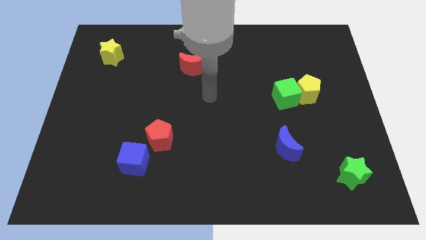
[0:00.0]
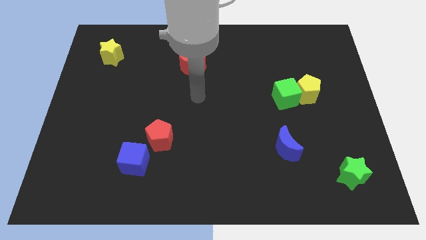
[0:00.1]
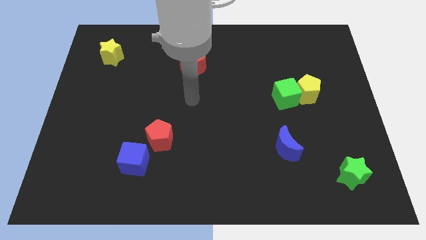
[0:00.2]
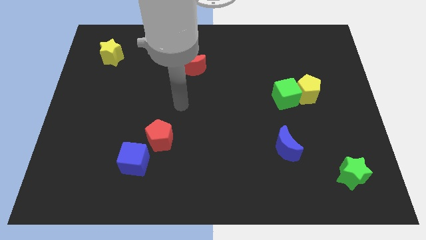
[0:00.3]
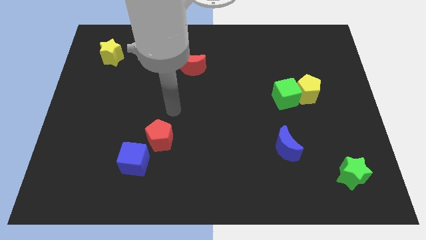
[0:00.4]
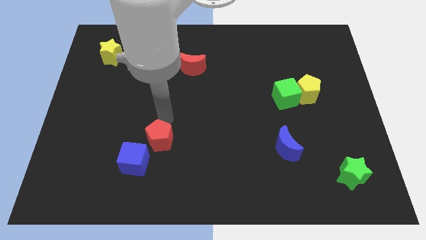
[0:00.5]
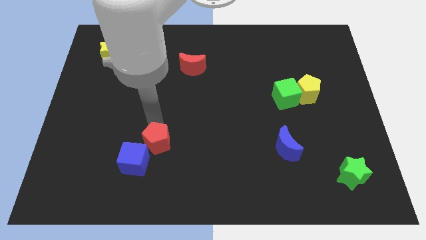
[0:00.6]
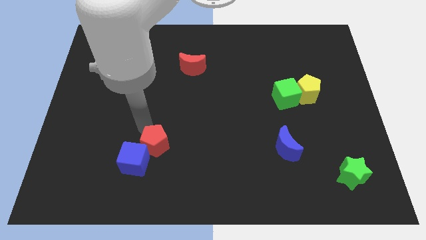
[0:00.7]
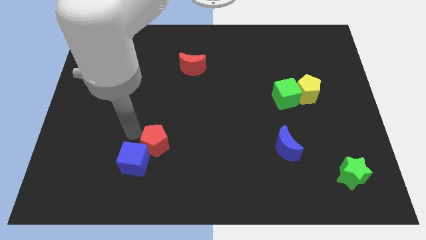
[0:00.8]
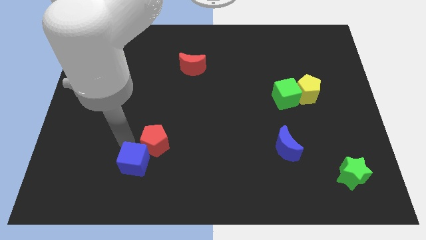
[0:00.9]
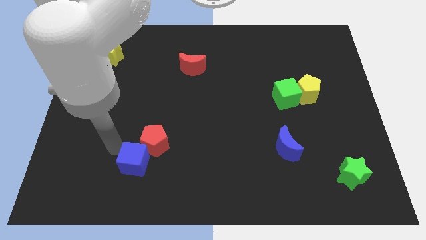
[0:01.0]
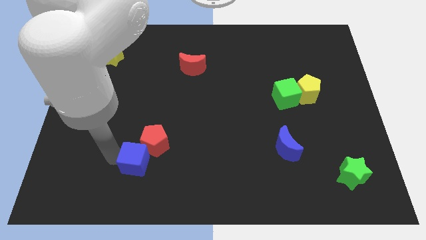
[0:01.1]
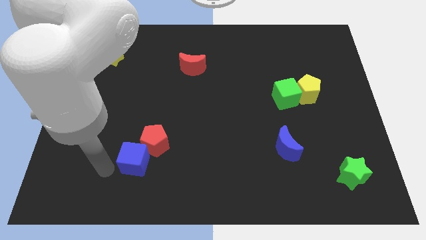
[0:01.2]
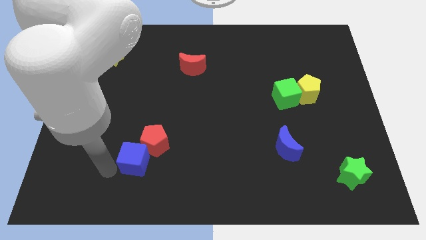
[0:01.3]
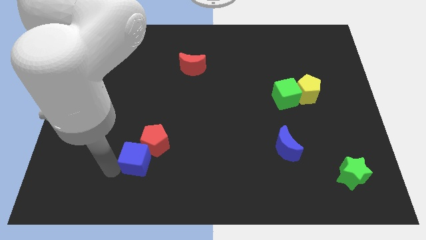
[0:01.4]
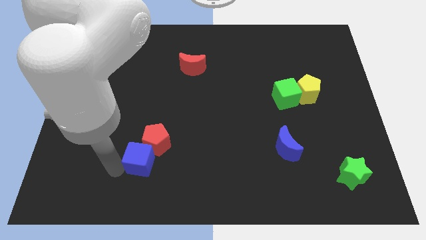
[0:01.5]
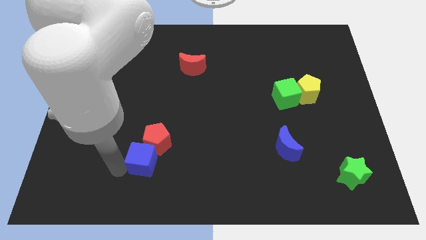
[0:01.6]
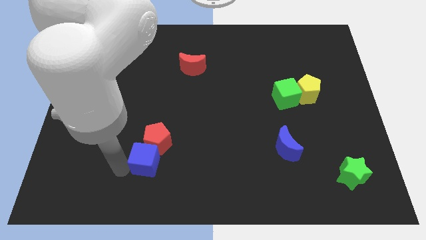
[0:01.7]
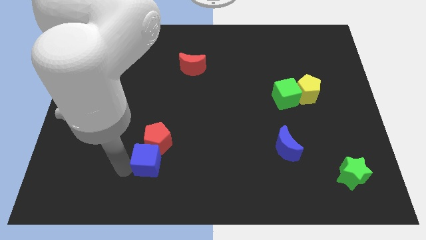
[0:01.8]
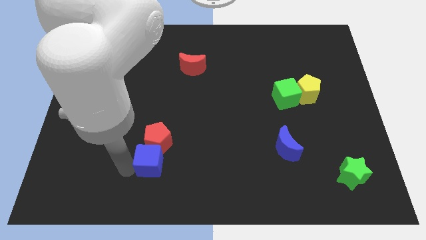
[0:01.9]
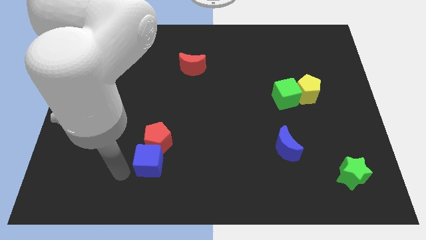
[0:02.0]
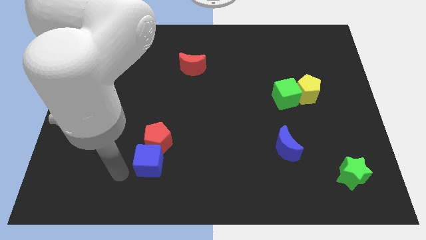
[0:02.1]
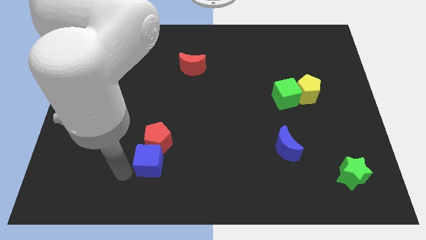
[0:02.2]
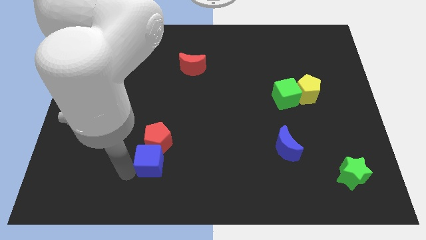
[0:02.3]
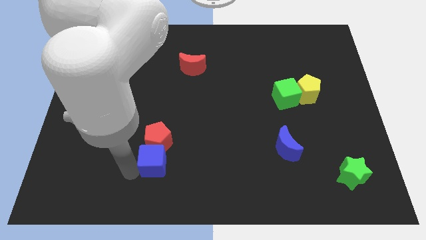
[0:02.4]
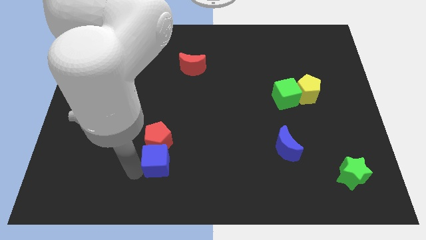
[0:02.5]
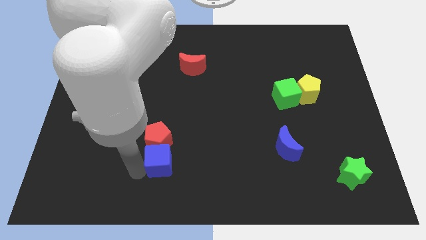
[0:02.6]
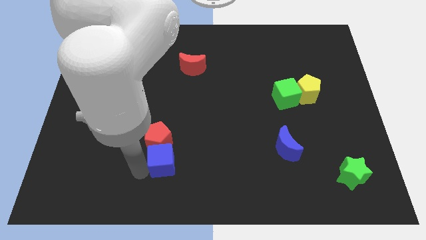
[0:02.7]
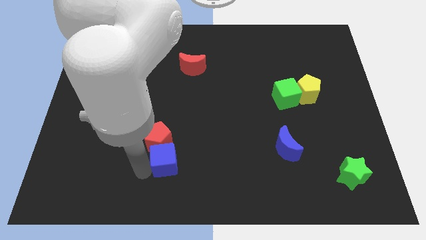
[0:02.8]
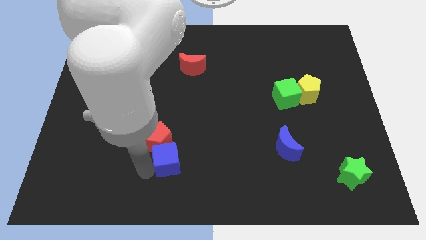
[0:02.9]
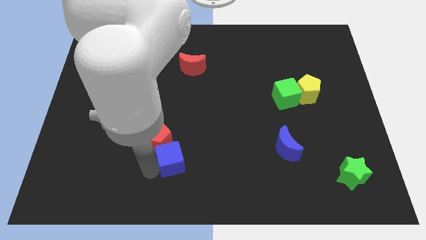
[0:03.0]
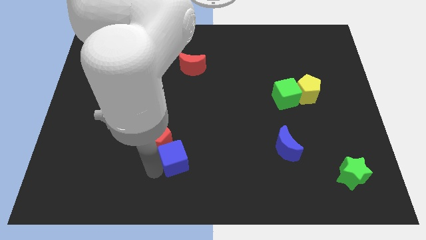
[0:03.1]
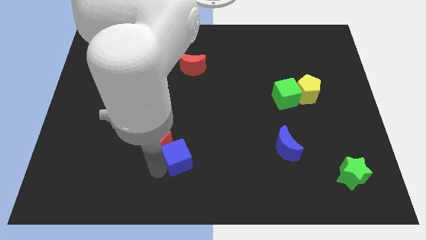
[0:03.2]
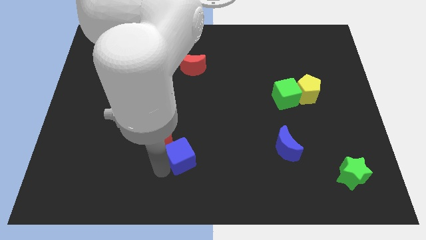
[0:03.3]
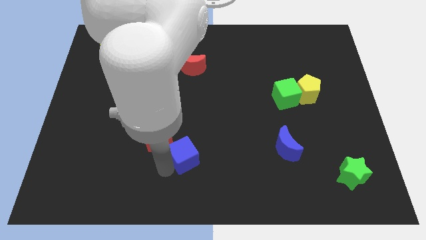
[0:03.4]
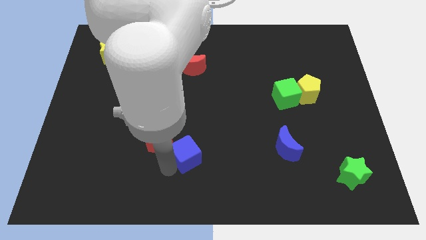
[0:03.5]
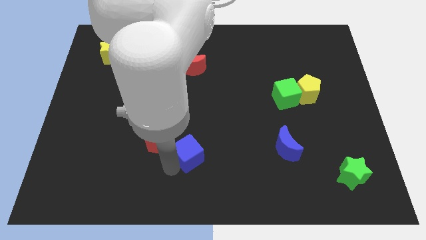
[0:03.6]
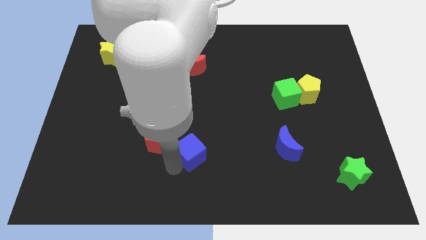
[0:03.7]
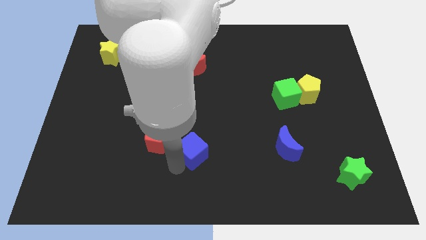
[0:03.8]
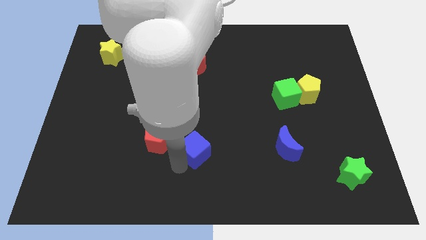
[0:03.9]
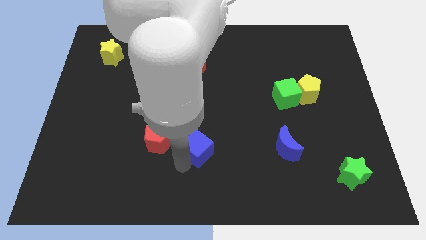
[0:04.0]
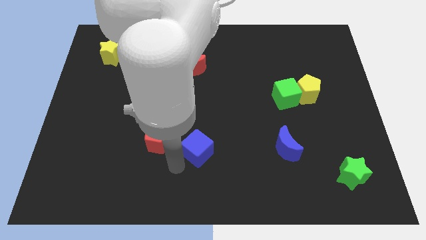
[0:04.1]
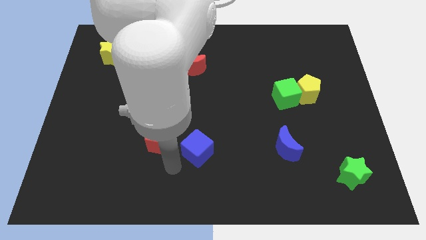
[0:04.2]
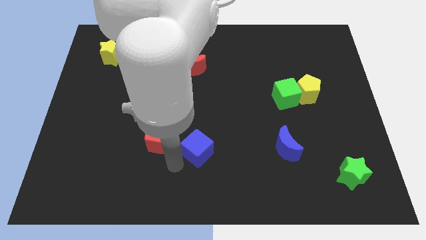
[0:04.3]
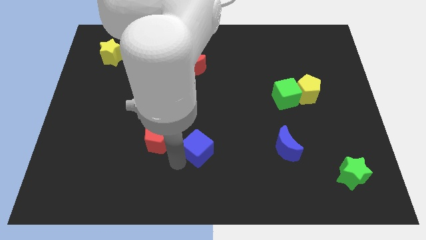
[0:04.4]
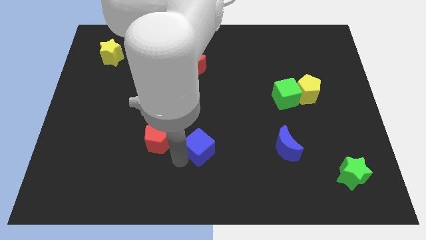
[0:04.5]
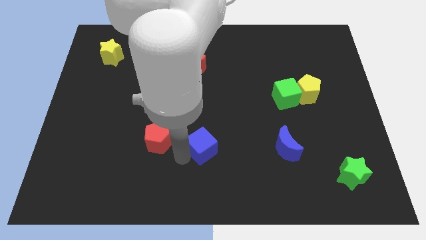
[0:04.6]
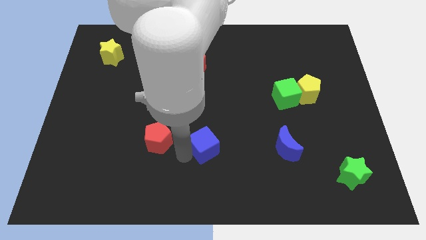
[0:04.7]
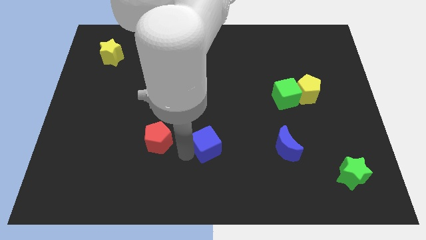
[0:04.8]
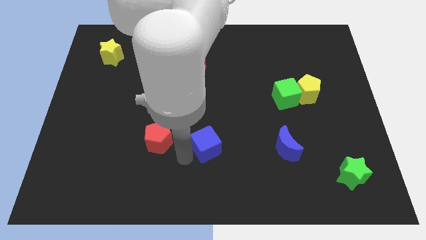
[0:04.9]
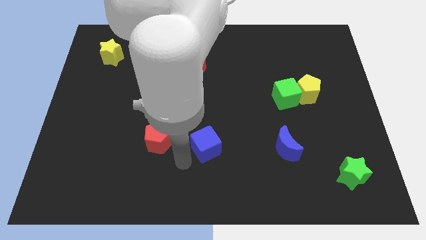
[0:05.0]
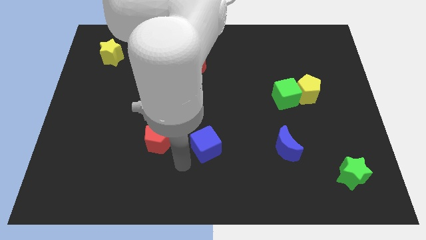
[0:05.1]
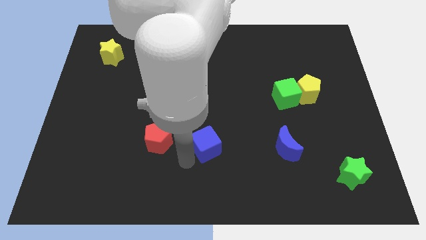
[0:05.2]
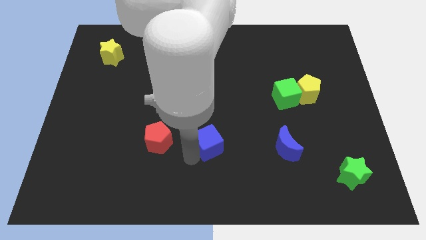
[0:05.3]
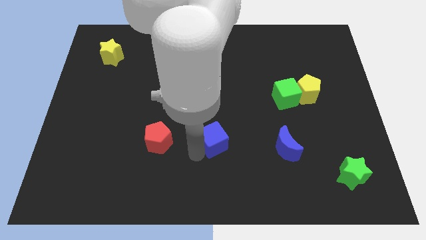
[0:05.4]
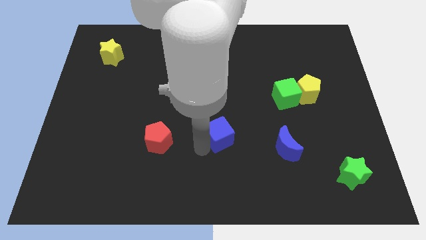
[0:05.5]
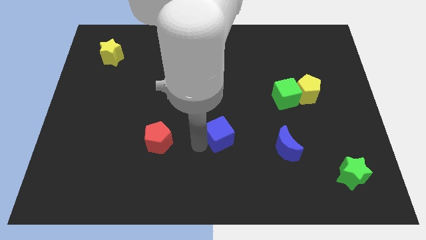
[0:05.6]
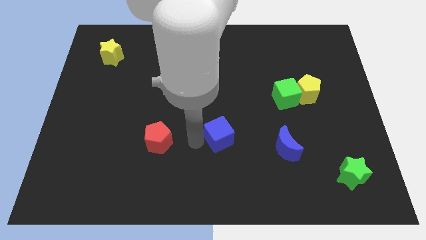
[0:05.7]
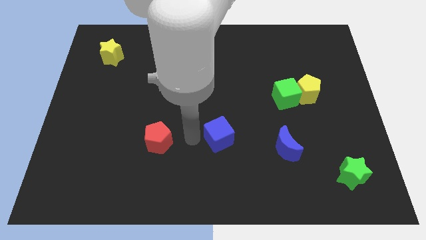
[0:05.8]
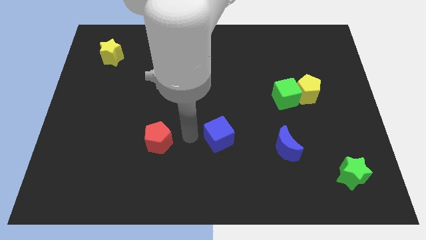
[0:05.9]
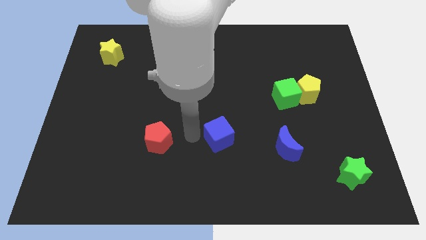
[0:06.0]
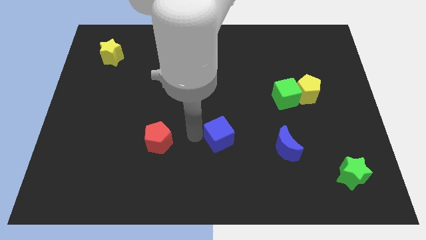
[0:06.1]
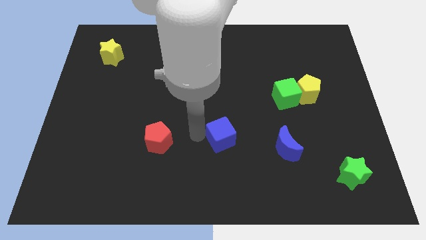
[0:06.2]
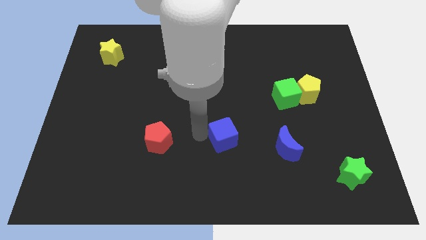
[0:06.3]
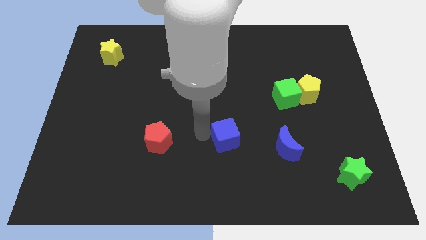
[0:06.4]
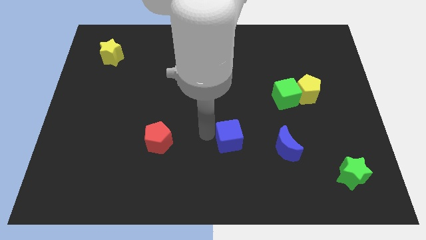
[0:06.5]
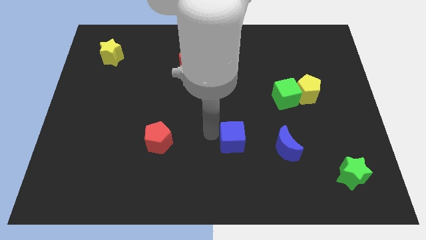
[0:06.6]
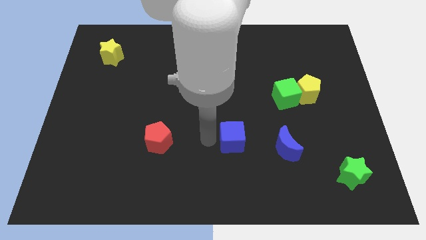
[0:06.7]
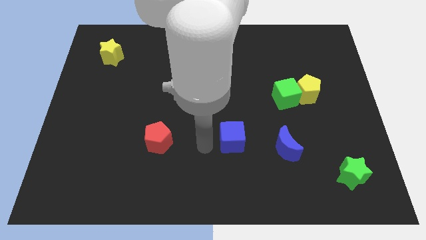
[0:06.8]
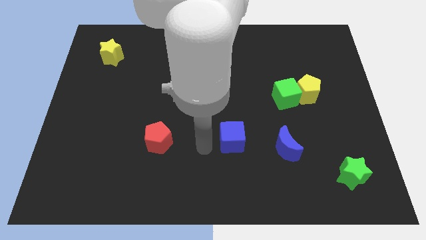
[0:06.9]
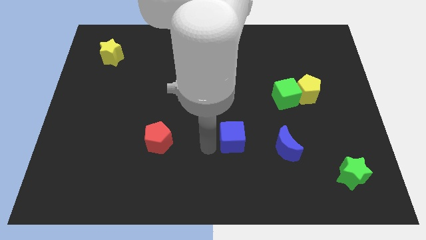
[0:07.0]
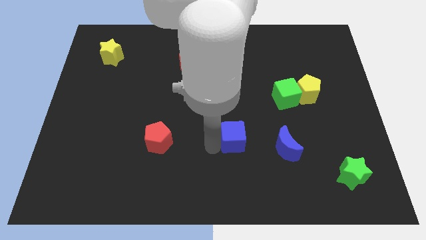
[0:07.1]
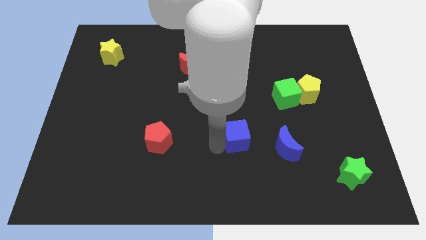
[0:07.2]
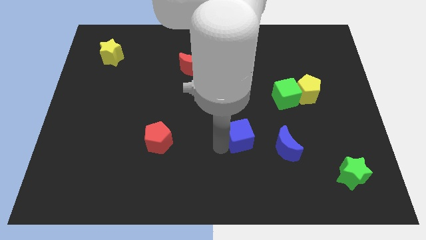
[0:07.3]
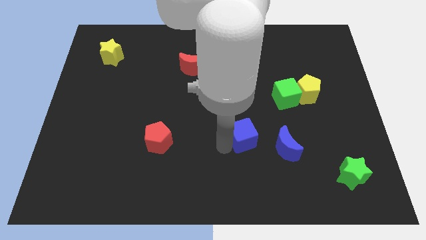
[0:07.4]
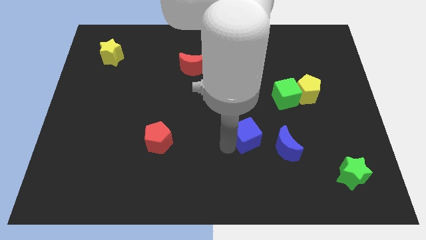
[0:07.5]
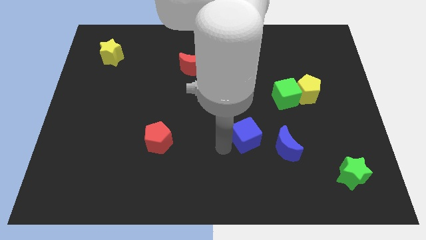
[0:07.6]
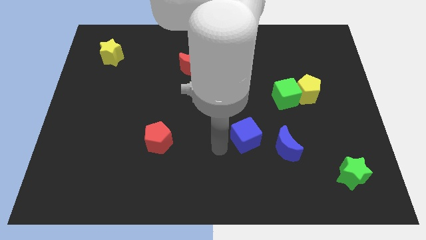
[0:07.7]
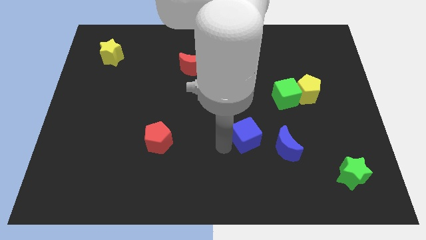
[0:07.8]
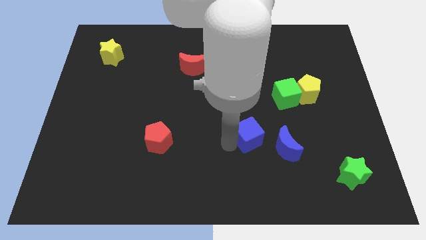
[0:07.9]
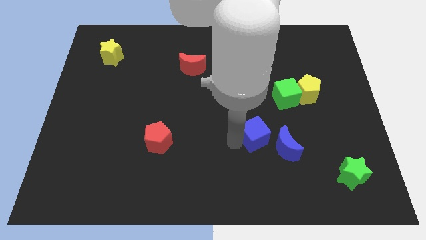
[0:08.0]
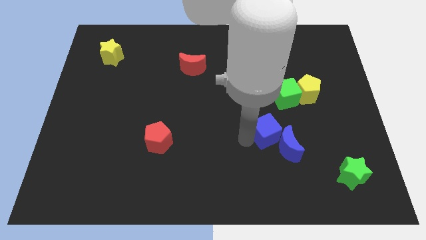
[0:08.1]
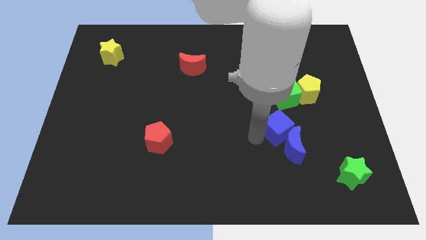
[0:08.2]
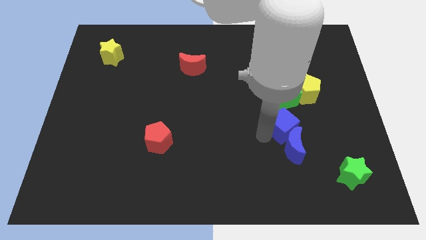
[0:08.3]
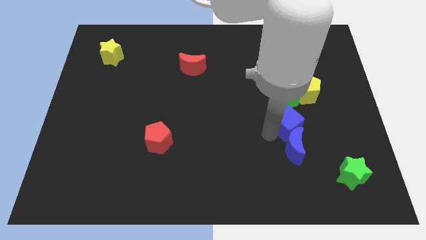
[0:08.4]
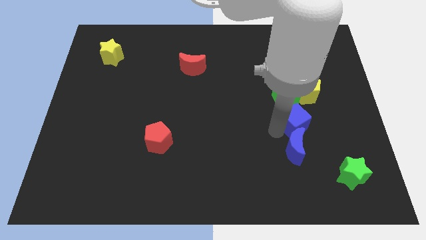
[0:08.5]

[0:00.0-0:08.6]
move the blue cube diagonally down and to the right of the green cube
